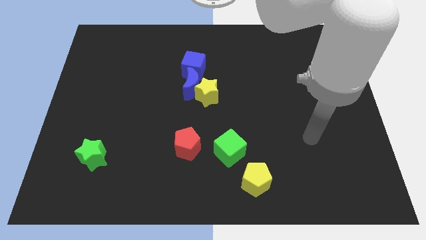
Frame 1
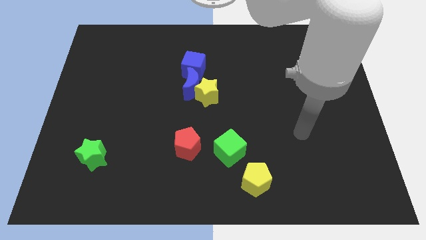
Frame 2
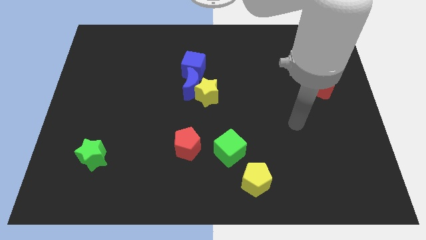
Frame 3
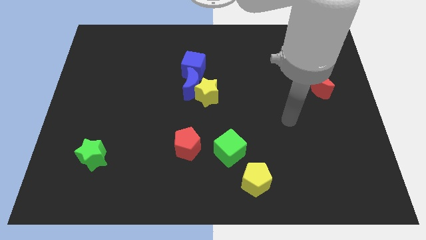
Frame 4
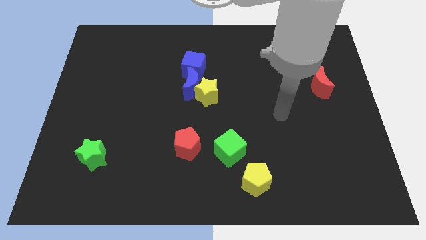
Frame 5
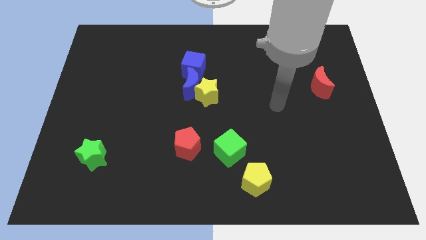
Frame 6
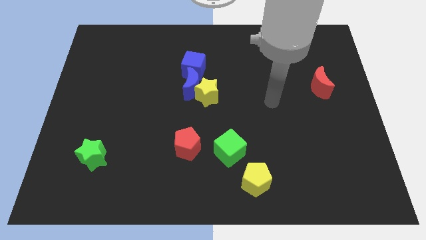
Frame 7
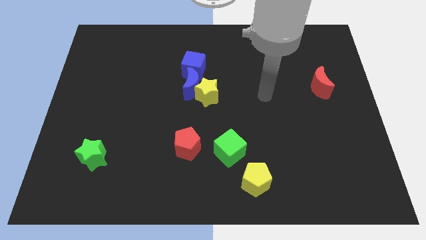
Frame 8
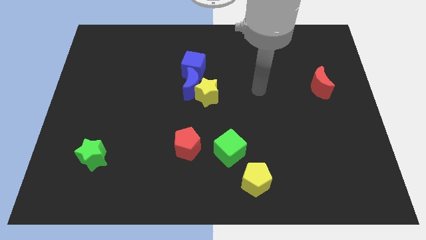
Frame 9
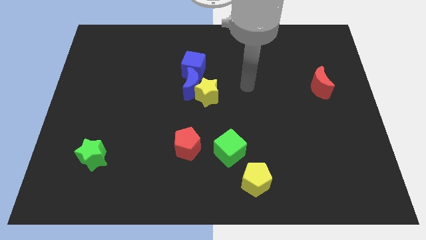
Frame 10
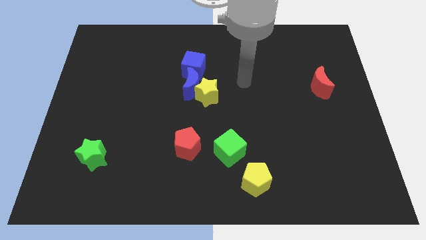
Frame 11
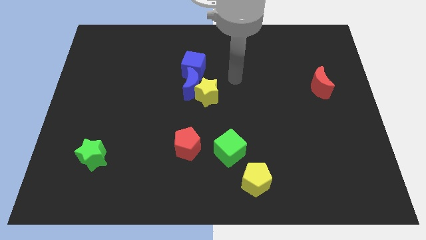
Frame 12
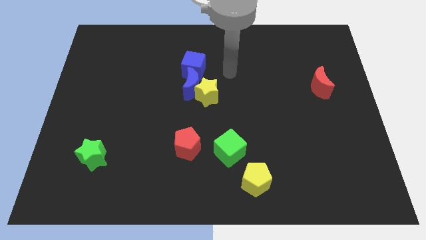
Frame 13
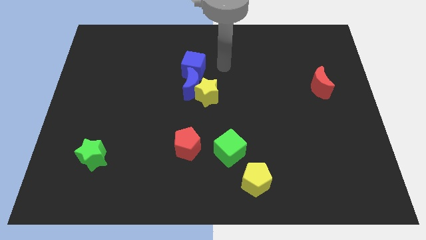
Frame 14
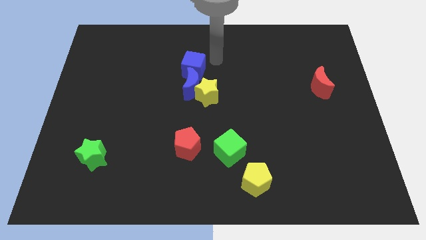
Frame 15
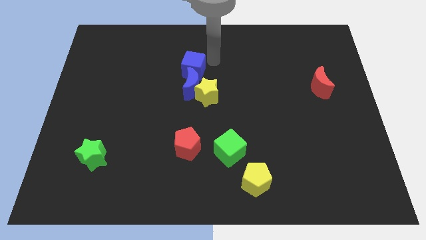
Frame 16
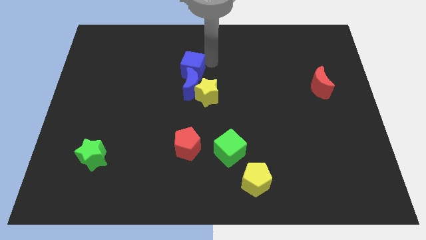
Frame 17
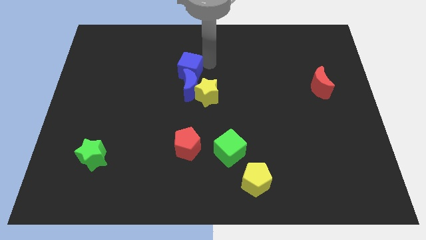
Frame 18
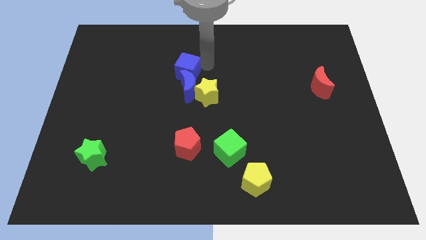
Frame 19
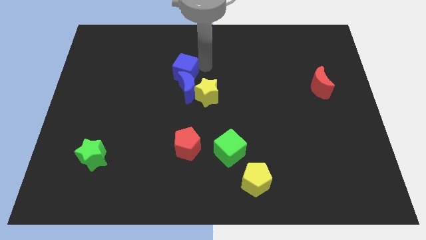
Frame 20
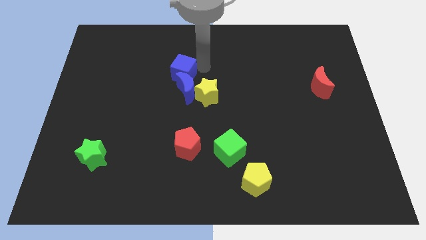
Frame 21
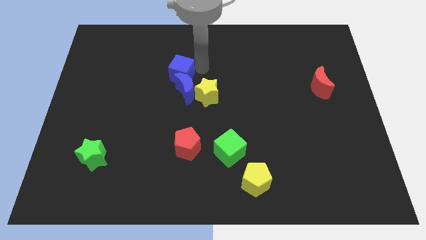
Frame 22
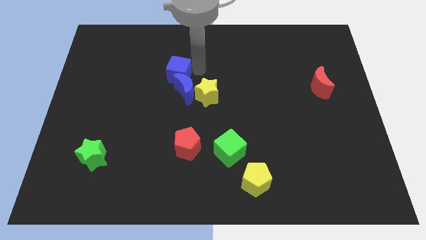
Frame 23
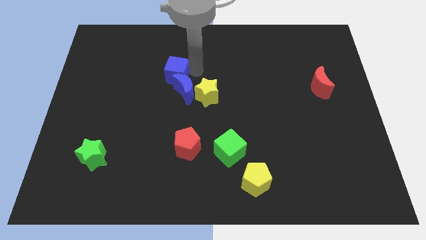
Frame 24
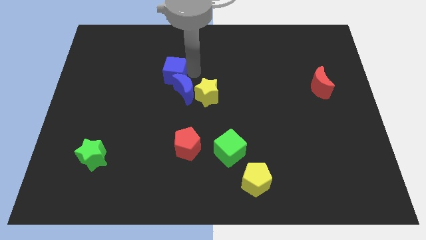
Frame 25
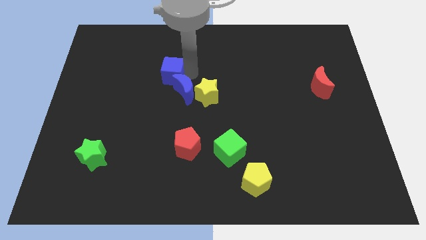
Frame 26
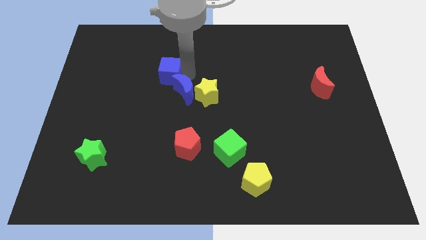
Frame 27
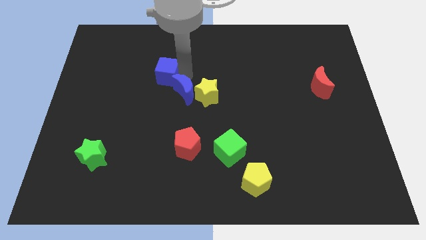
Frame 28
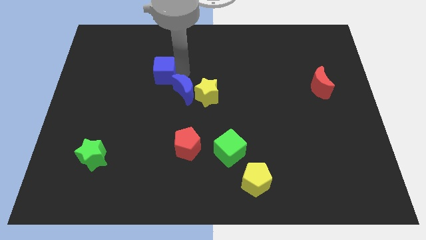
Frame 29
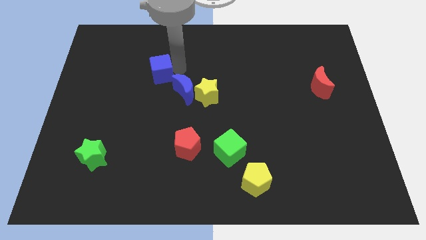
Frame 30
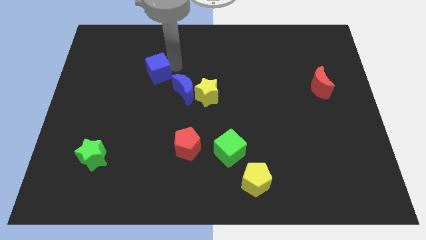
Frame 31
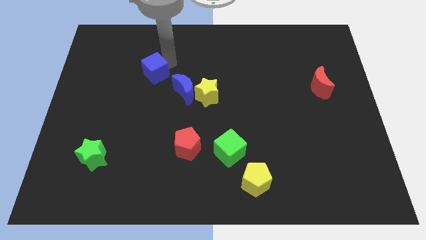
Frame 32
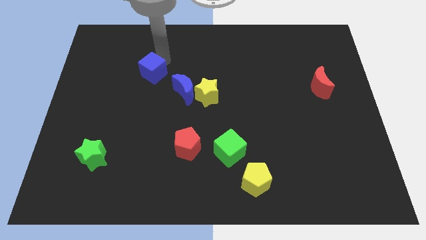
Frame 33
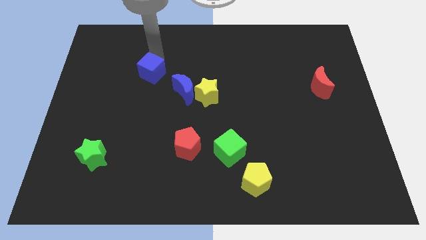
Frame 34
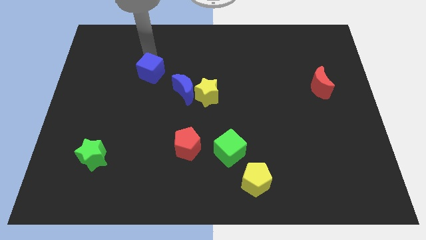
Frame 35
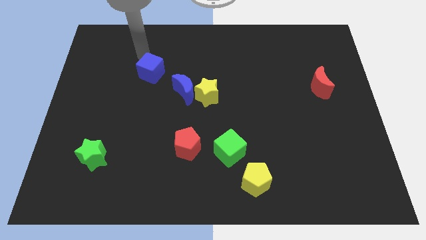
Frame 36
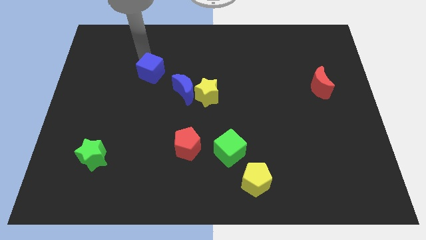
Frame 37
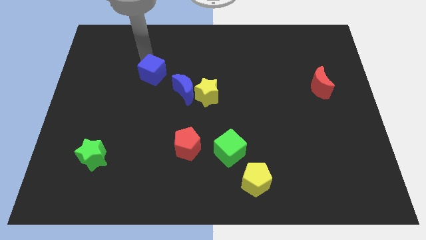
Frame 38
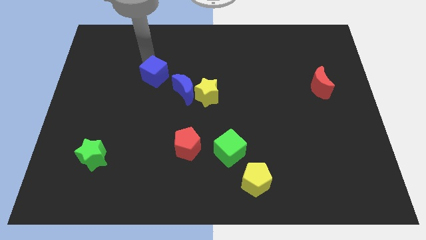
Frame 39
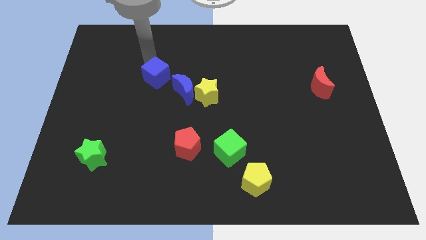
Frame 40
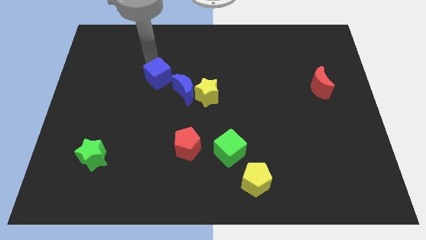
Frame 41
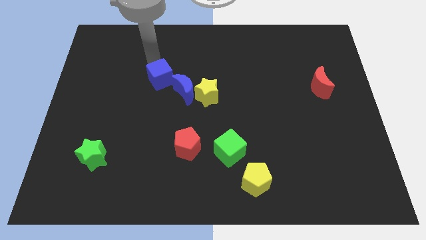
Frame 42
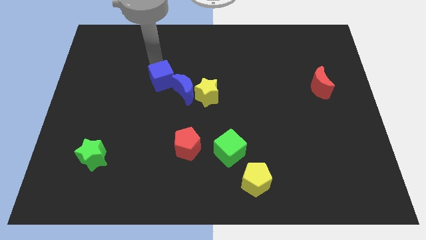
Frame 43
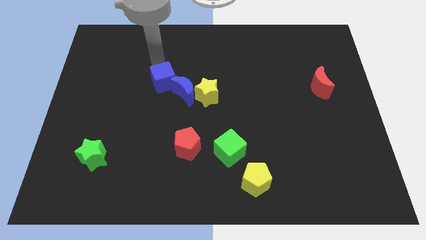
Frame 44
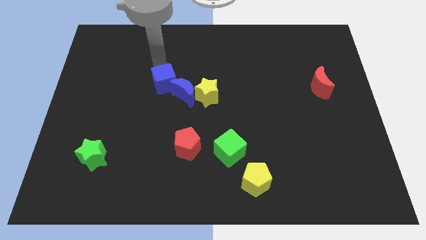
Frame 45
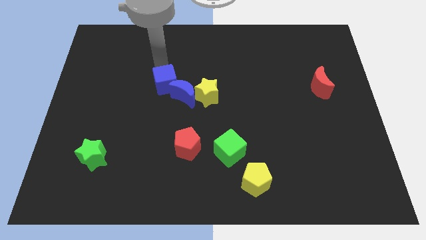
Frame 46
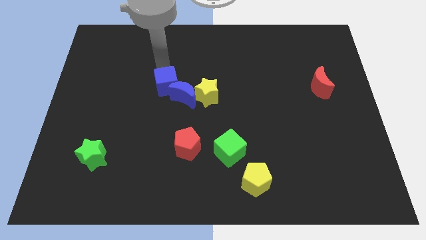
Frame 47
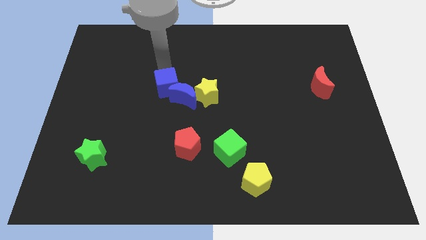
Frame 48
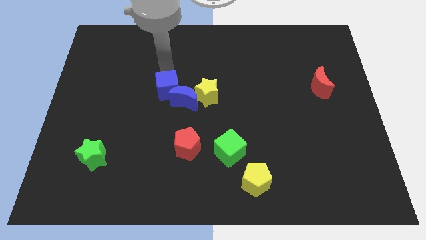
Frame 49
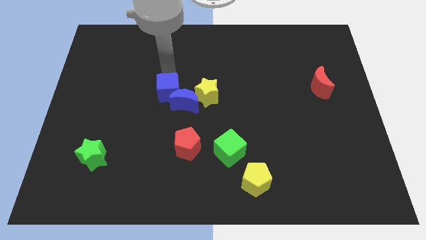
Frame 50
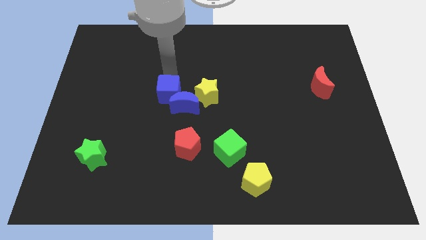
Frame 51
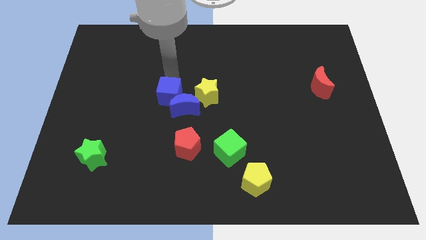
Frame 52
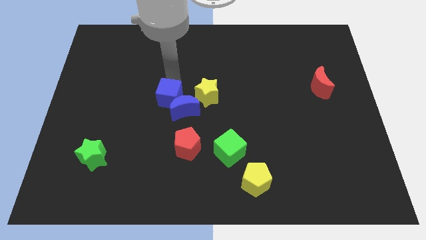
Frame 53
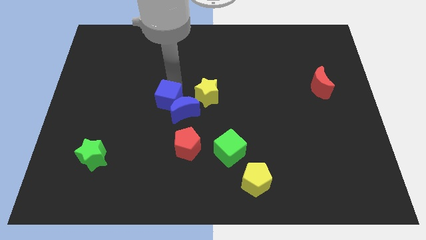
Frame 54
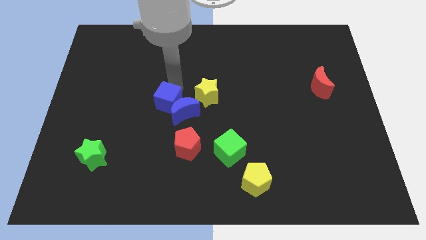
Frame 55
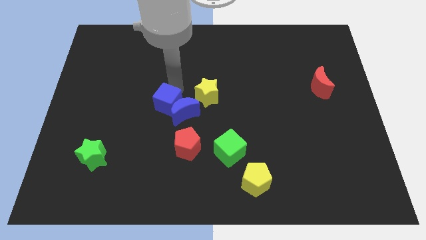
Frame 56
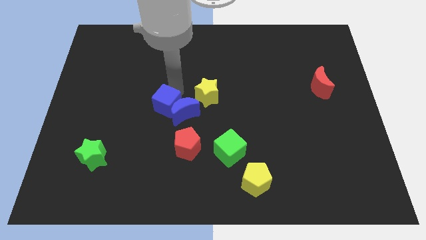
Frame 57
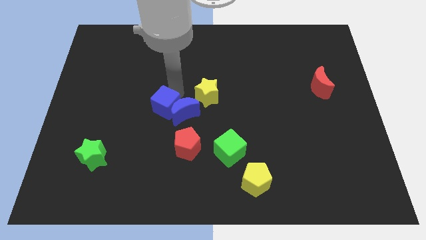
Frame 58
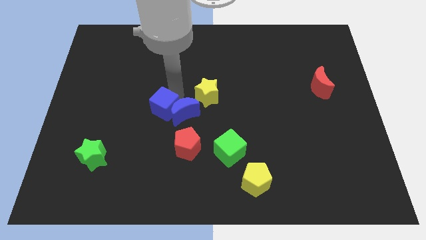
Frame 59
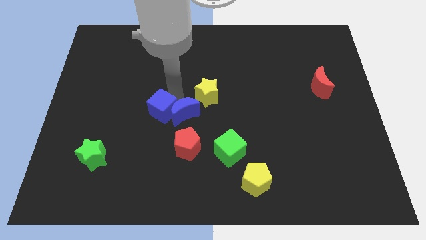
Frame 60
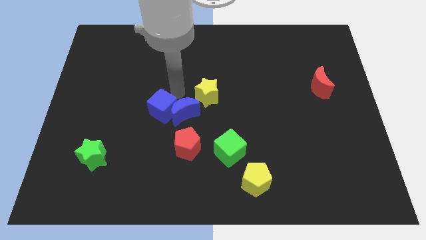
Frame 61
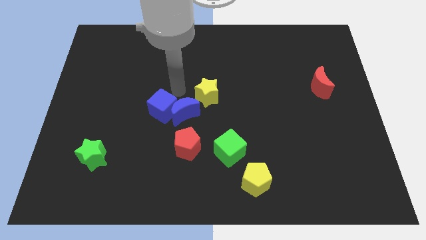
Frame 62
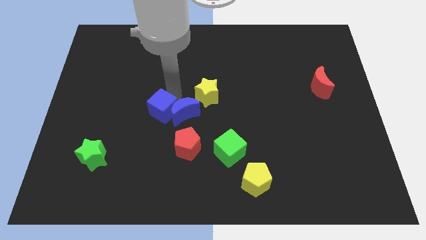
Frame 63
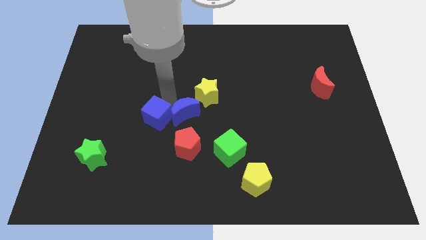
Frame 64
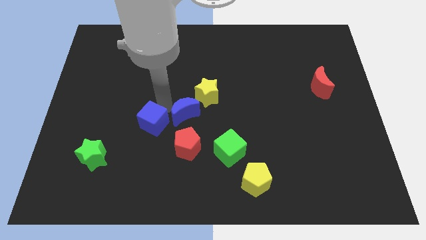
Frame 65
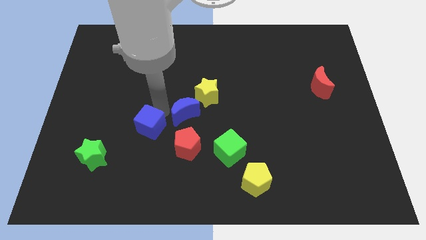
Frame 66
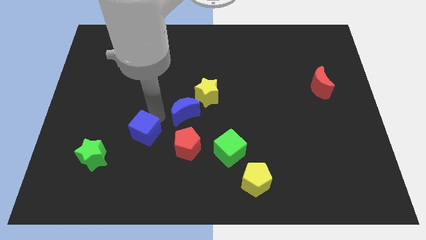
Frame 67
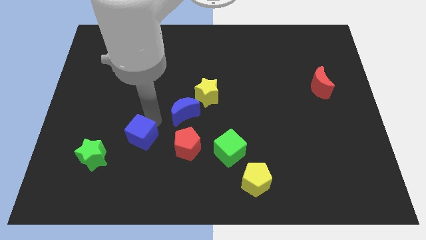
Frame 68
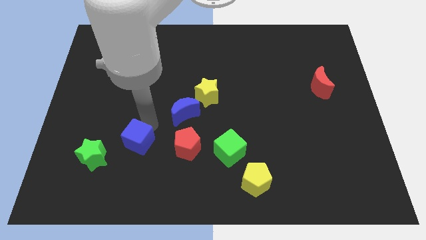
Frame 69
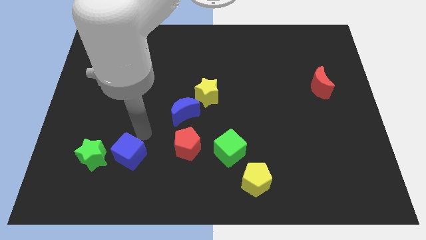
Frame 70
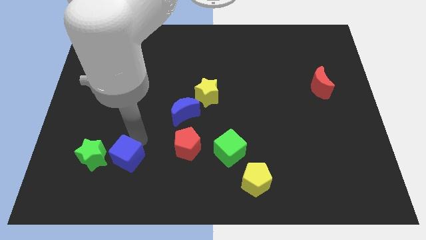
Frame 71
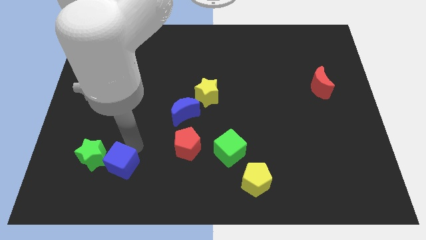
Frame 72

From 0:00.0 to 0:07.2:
slide the blue cube diagonally down and to the right of the green star

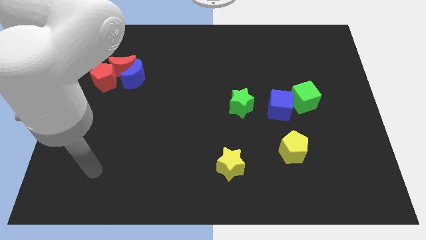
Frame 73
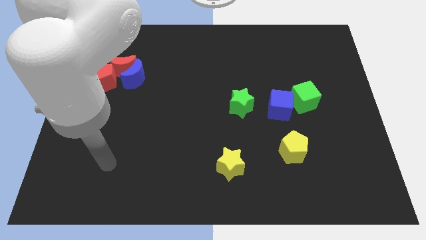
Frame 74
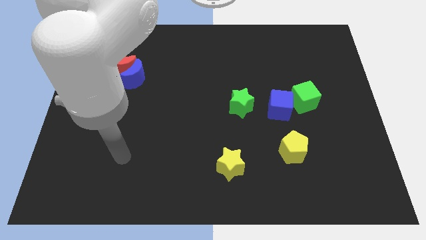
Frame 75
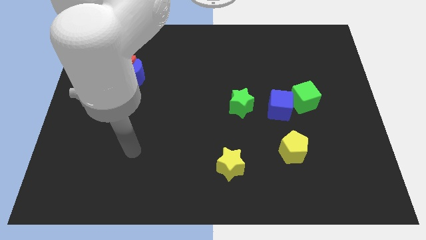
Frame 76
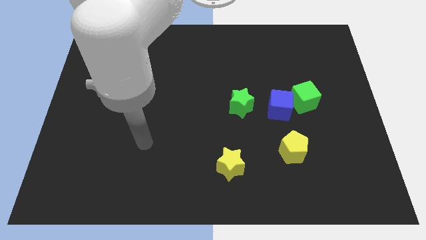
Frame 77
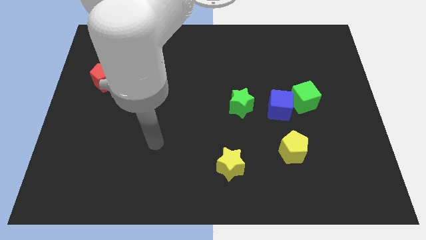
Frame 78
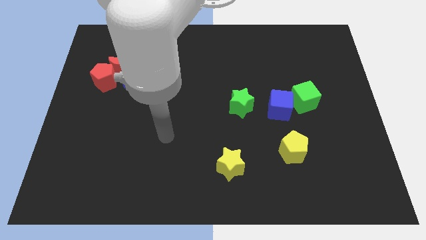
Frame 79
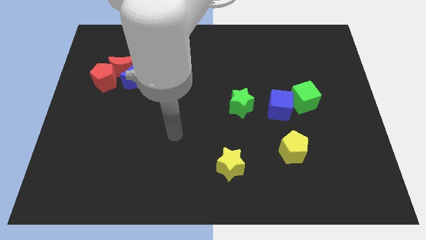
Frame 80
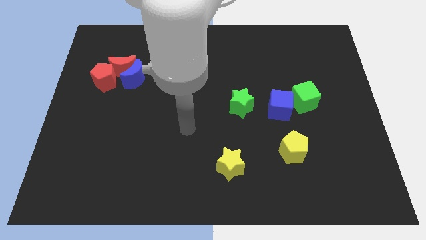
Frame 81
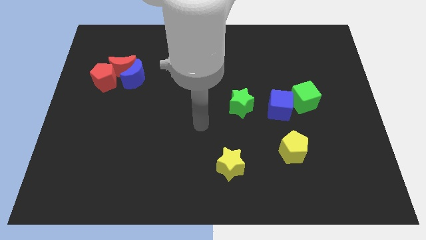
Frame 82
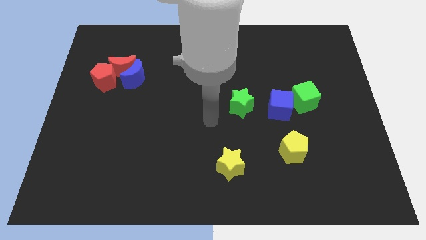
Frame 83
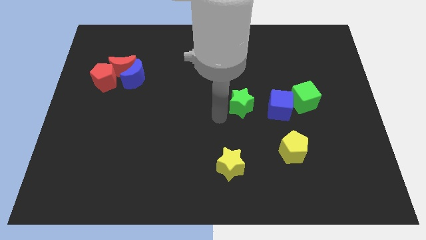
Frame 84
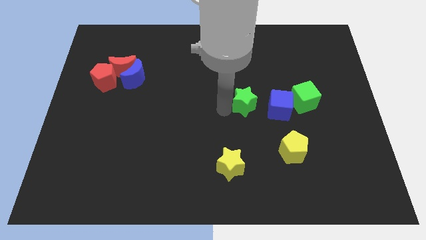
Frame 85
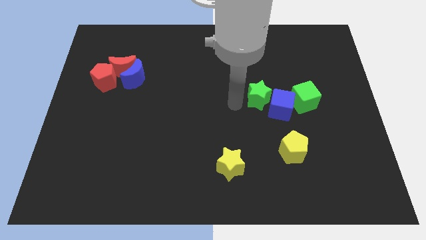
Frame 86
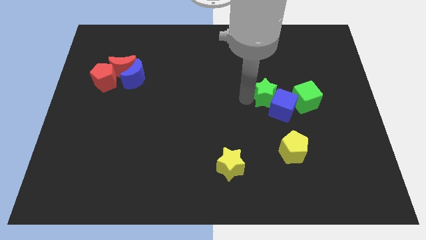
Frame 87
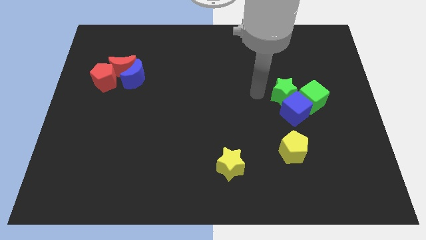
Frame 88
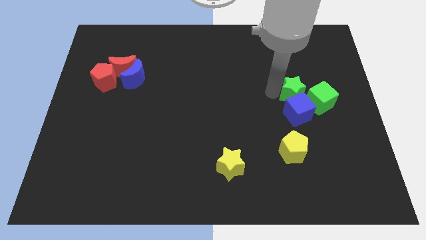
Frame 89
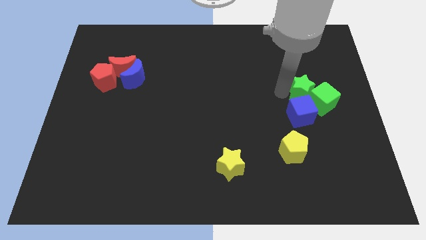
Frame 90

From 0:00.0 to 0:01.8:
move the blue cube to the top right side of the yellow pentagon
